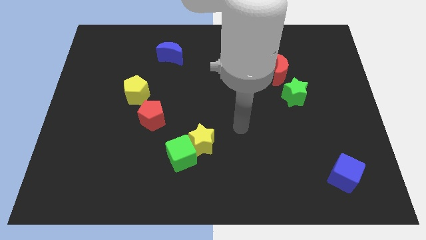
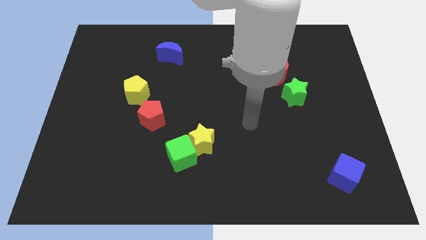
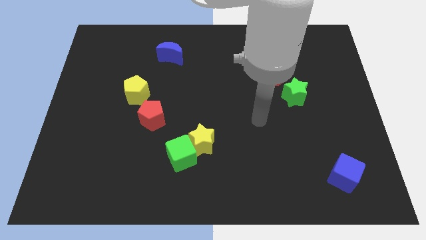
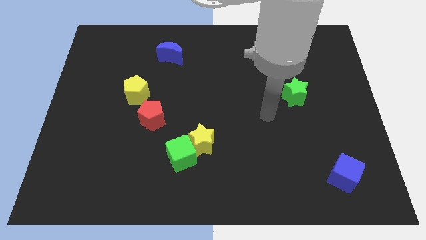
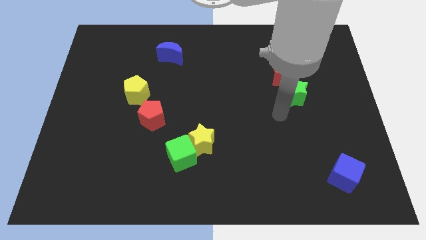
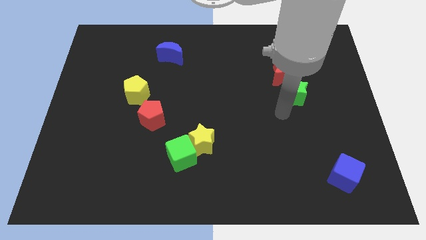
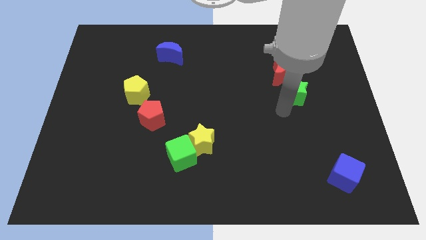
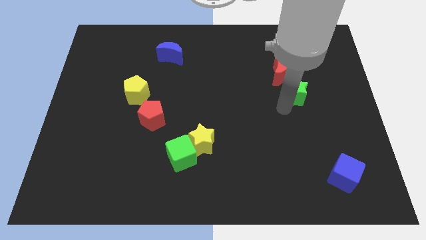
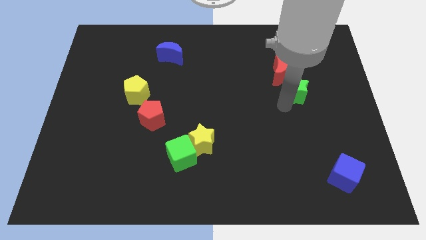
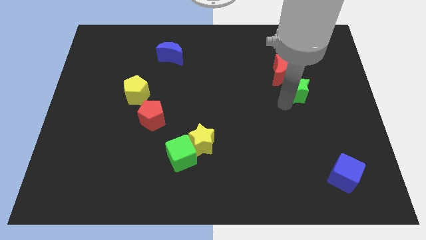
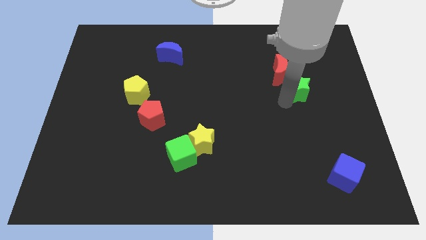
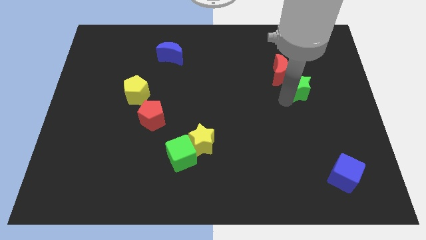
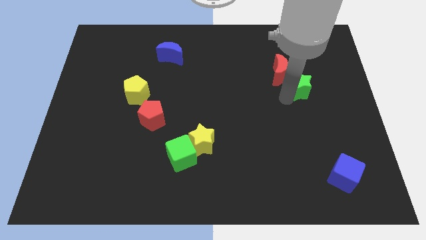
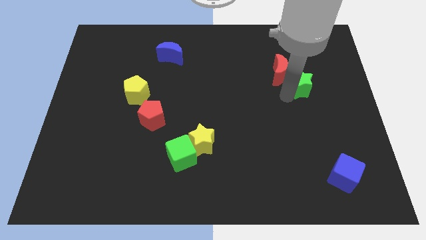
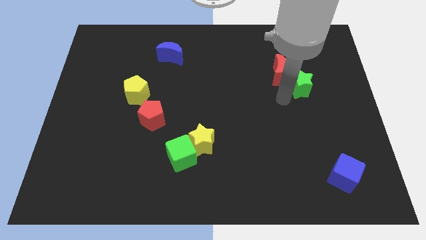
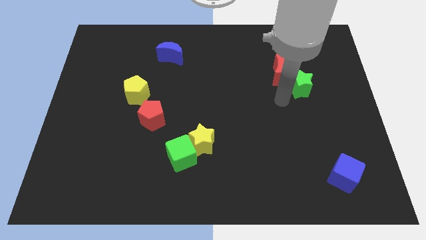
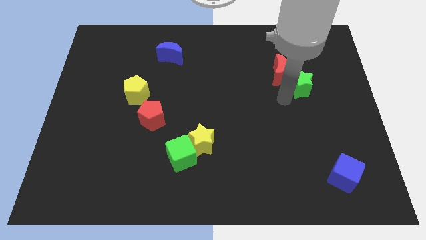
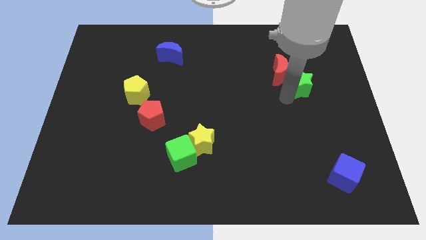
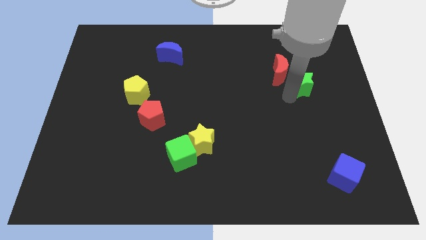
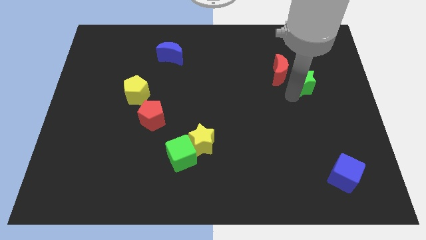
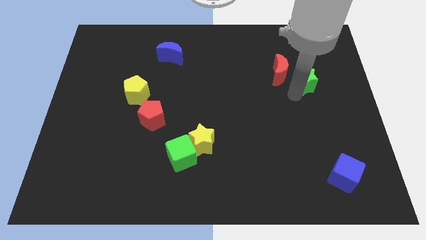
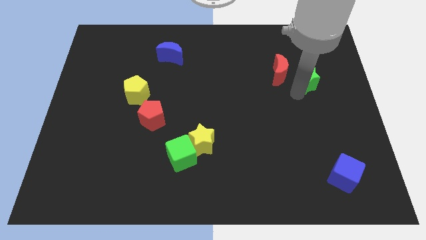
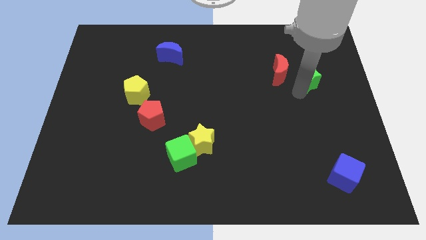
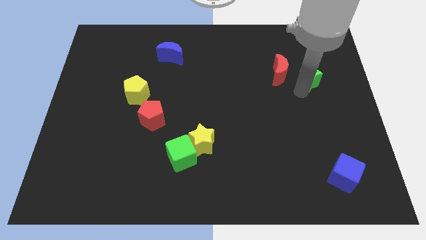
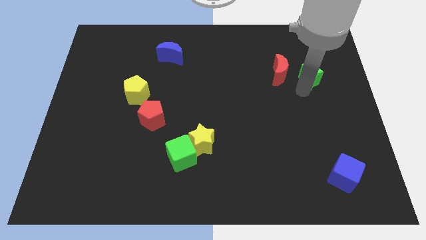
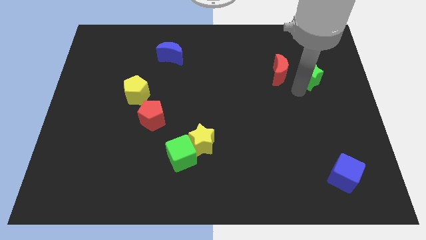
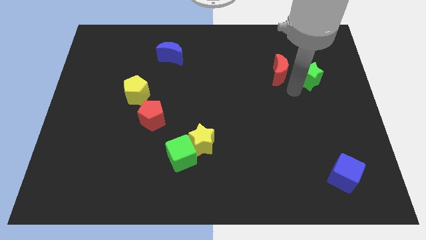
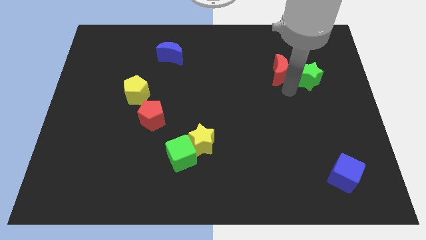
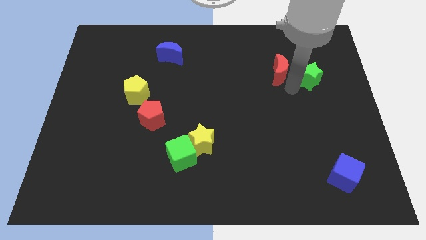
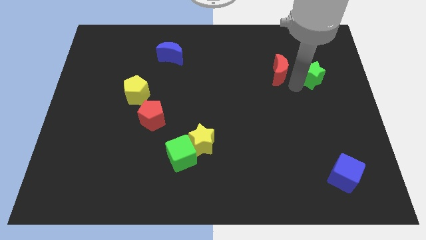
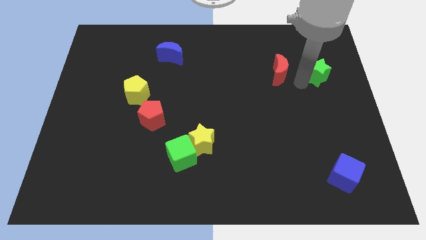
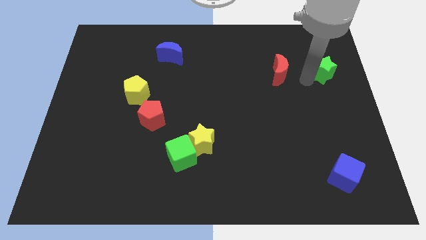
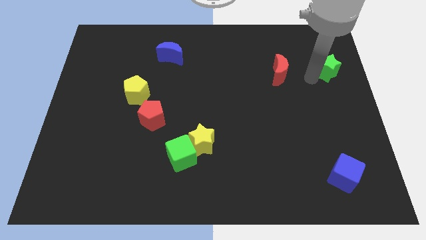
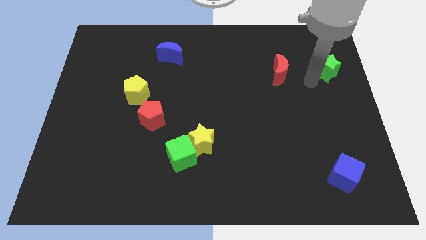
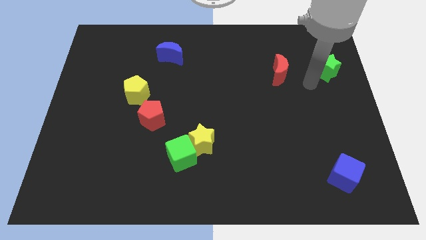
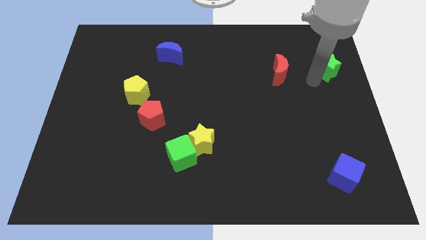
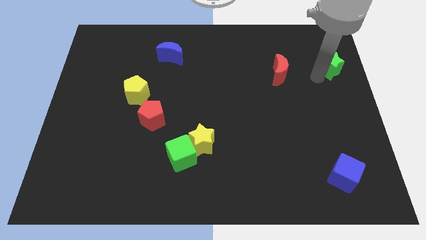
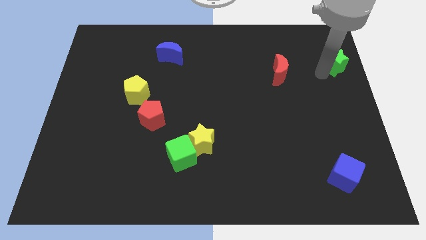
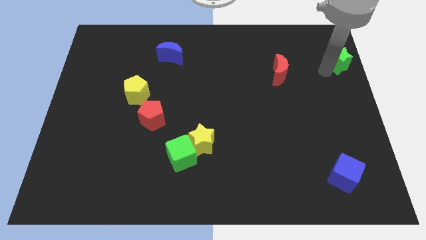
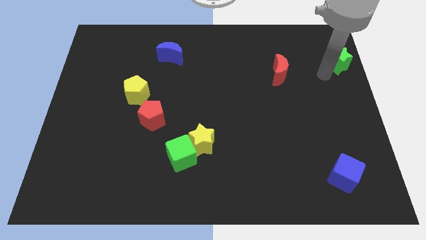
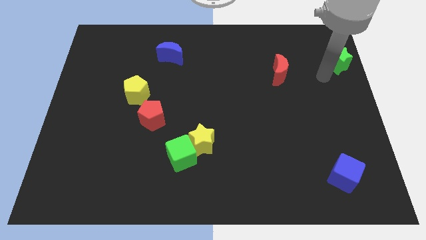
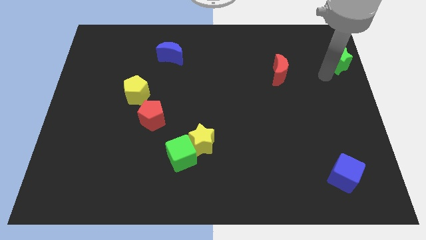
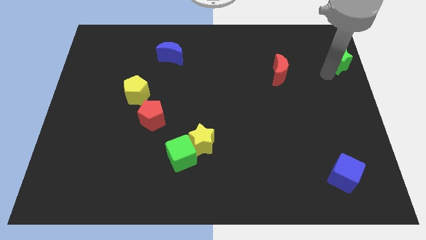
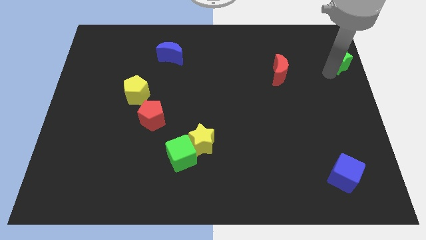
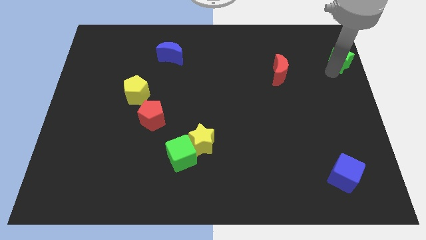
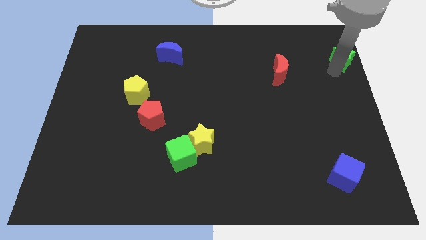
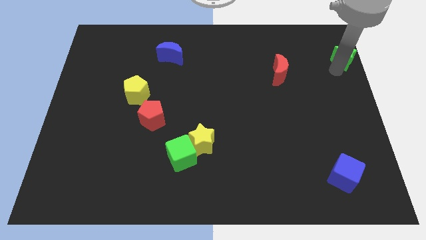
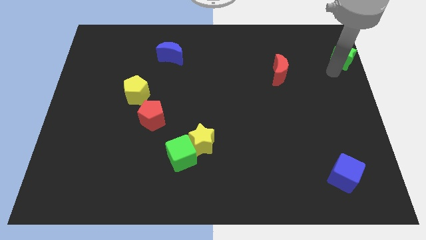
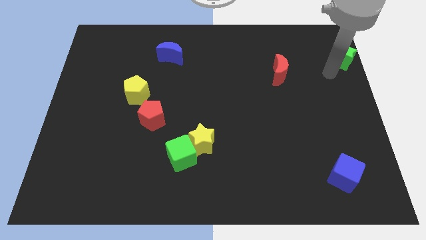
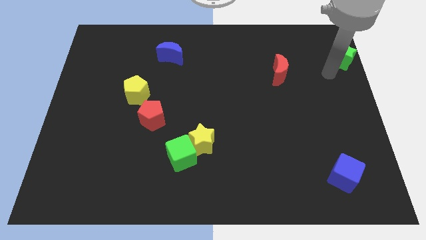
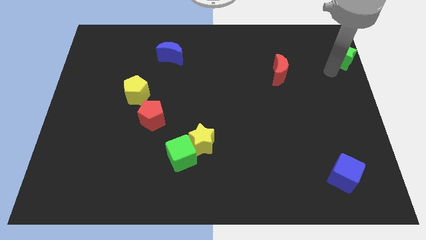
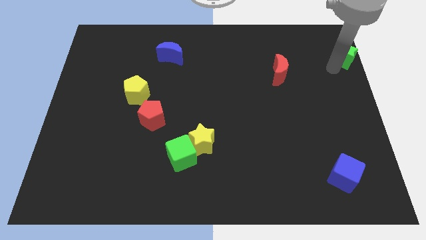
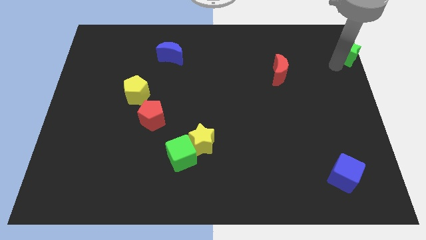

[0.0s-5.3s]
move the green star to the upper right corner
